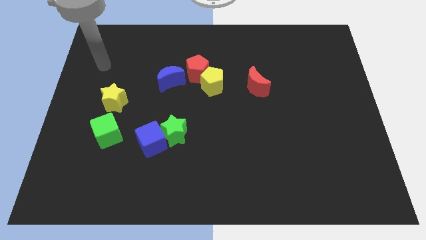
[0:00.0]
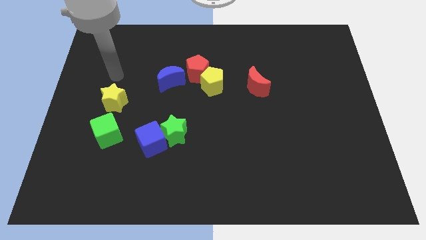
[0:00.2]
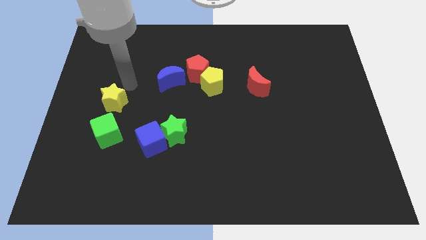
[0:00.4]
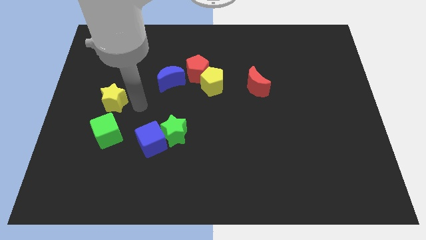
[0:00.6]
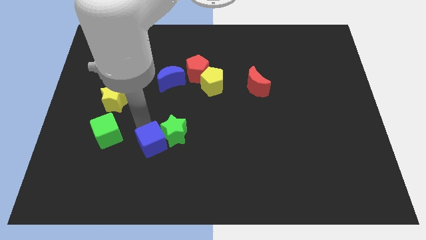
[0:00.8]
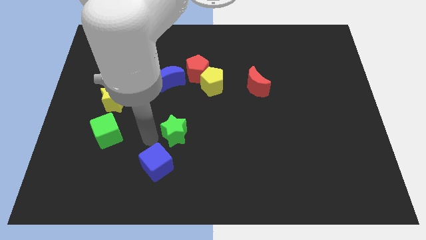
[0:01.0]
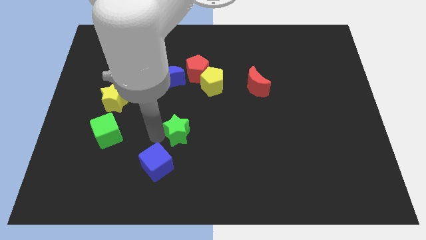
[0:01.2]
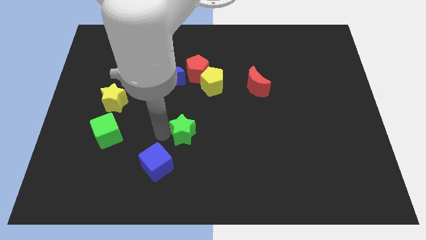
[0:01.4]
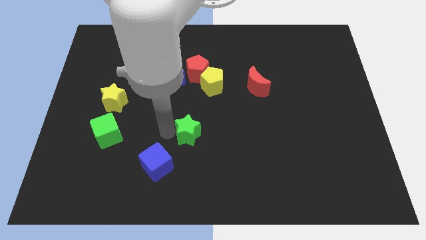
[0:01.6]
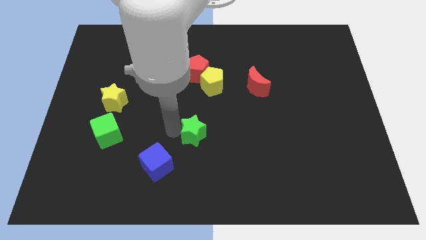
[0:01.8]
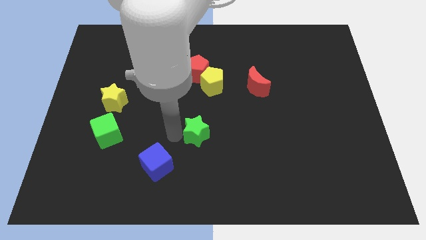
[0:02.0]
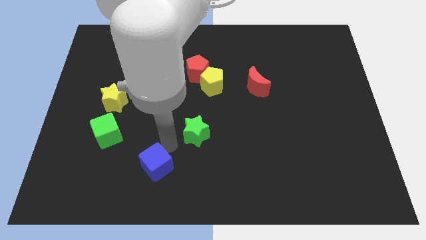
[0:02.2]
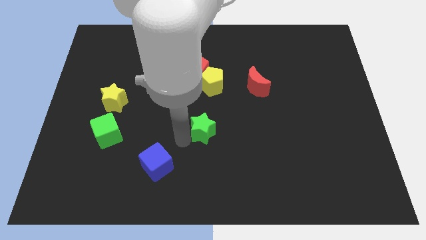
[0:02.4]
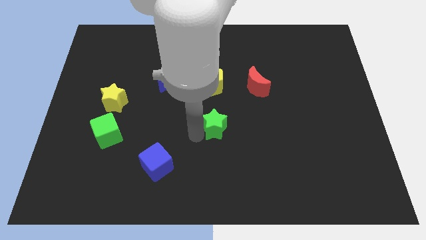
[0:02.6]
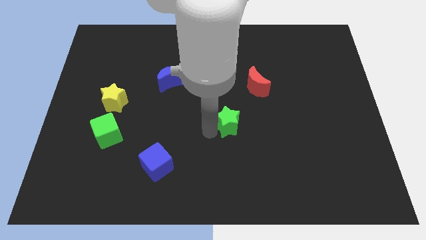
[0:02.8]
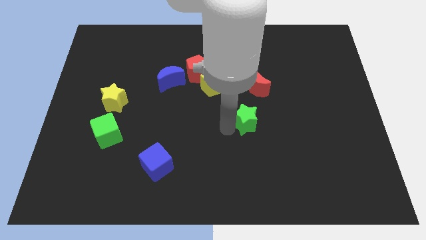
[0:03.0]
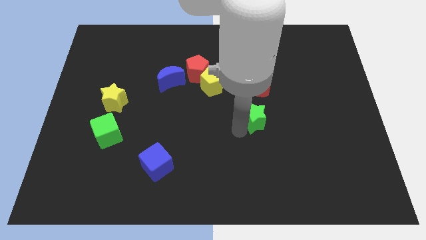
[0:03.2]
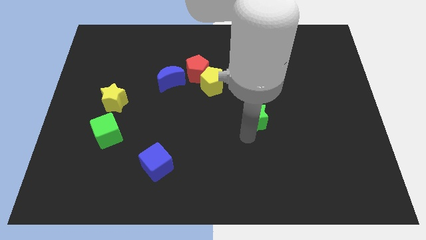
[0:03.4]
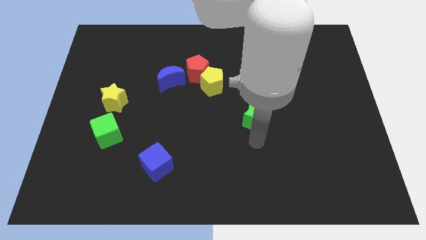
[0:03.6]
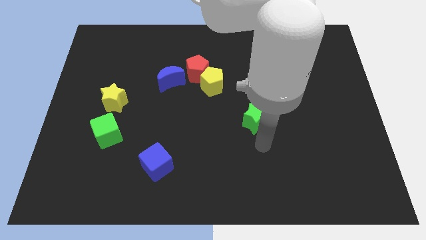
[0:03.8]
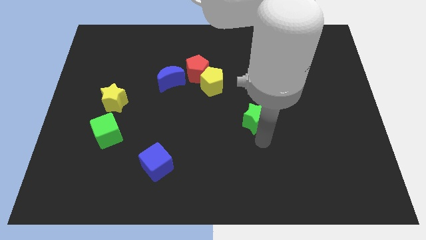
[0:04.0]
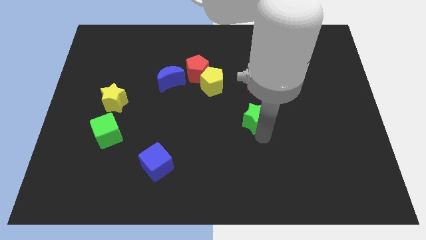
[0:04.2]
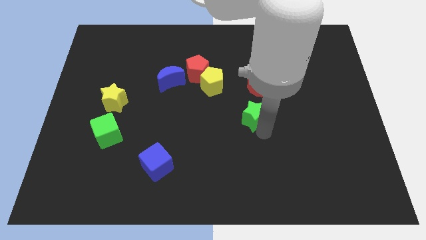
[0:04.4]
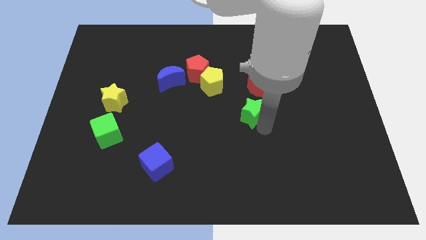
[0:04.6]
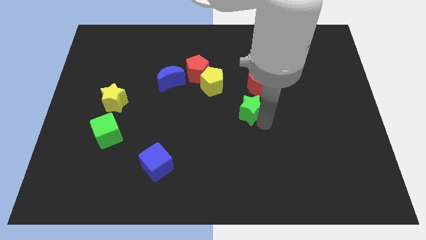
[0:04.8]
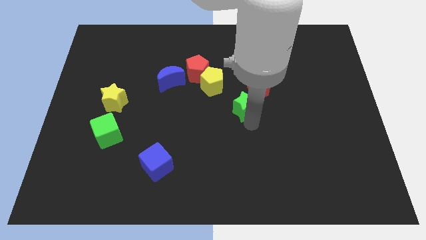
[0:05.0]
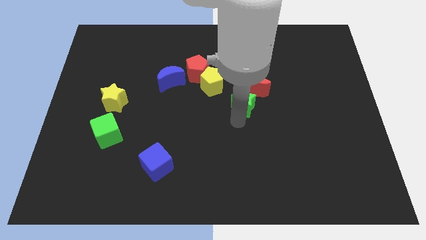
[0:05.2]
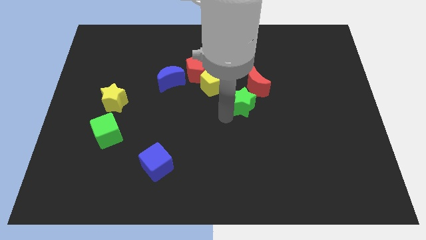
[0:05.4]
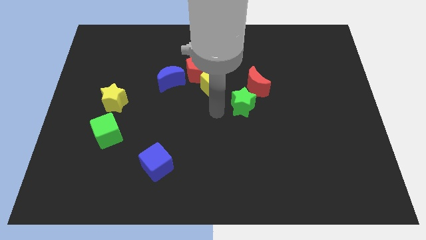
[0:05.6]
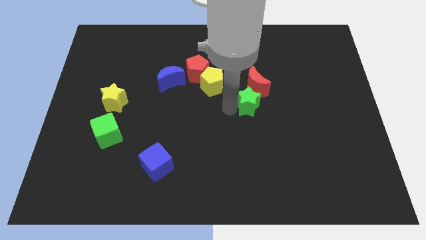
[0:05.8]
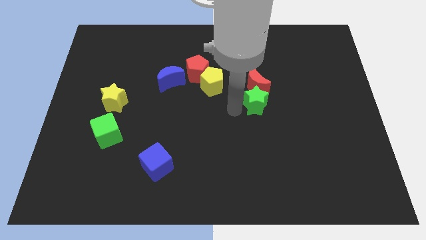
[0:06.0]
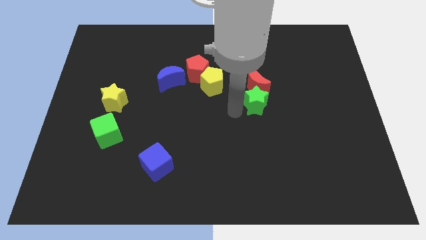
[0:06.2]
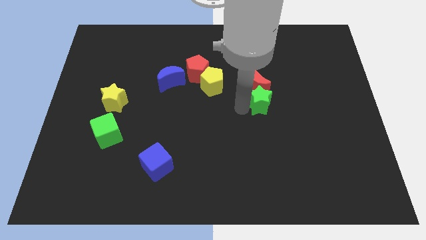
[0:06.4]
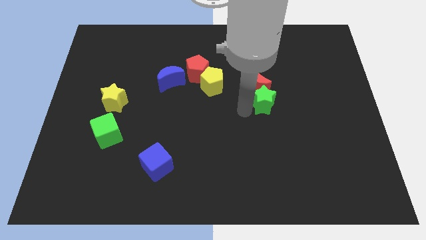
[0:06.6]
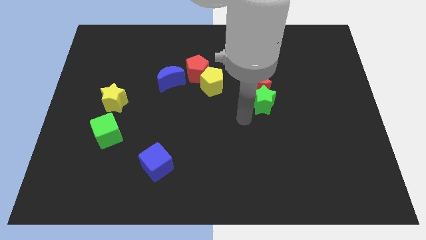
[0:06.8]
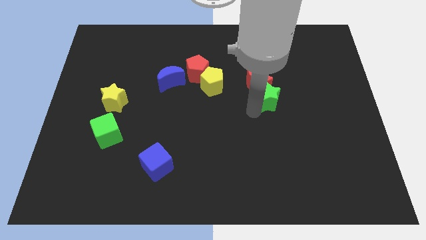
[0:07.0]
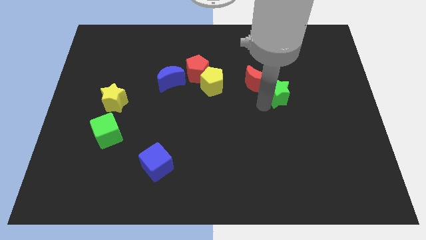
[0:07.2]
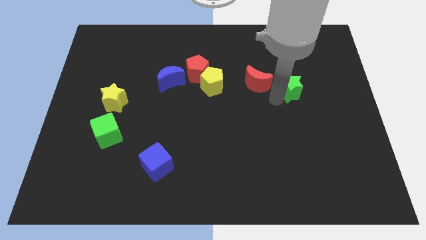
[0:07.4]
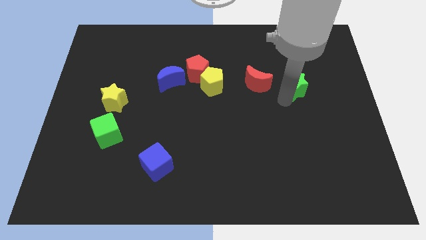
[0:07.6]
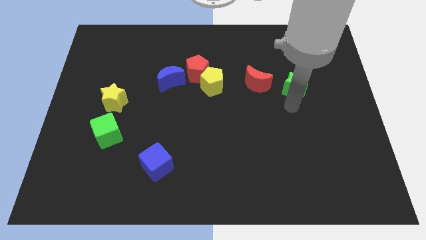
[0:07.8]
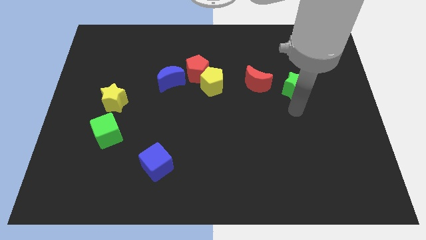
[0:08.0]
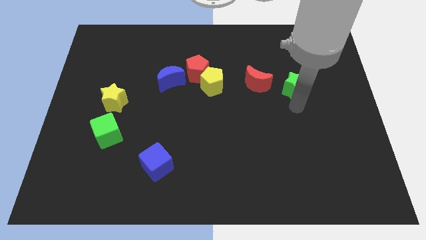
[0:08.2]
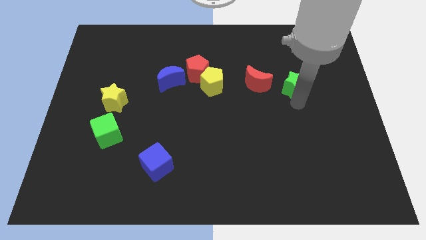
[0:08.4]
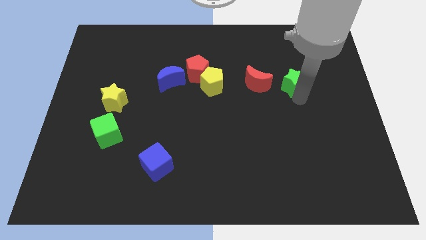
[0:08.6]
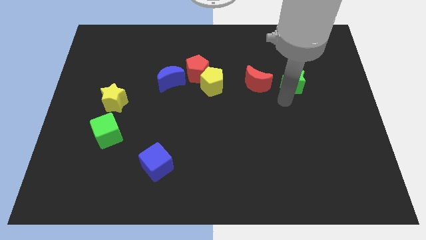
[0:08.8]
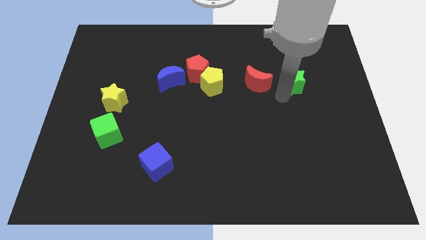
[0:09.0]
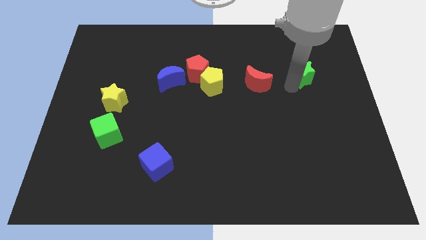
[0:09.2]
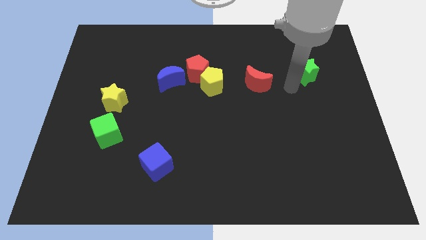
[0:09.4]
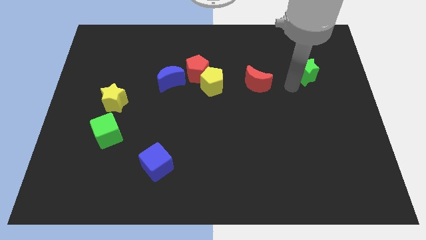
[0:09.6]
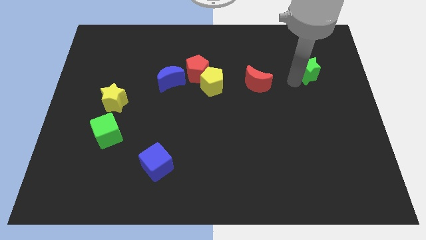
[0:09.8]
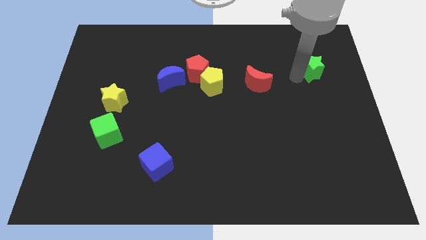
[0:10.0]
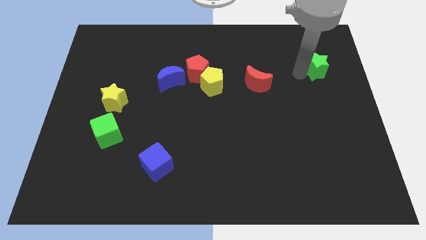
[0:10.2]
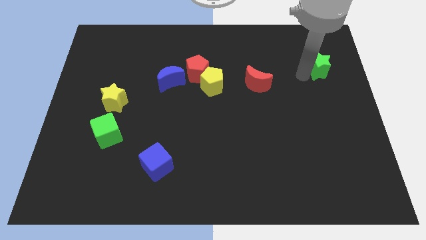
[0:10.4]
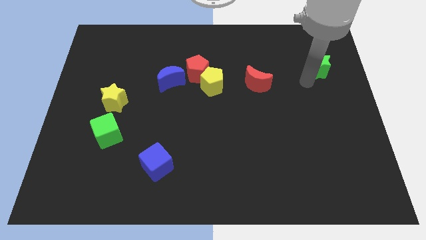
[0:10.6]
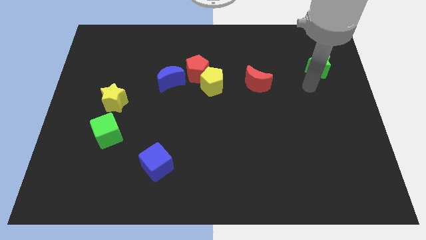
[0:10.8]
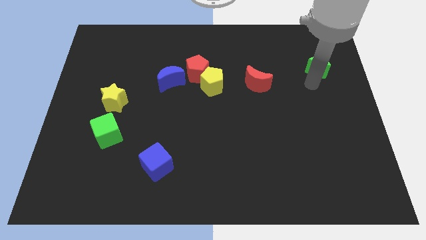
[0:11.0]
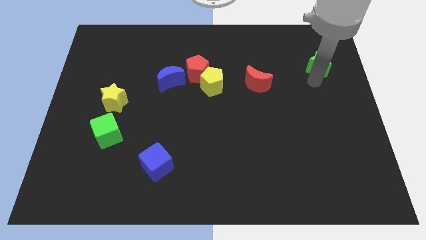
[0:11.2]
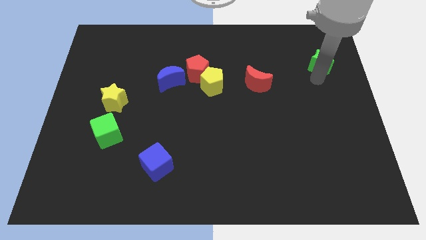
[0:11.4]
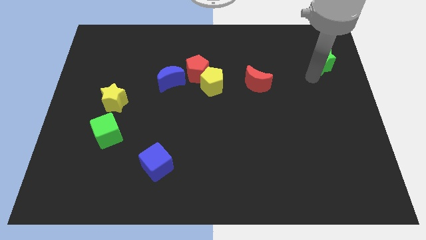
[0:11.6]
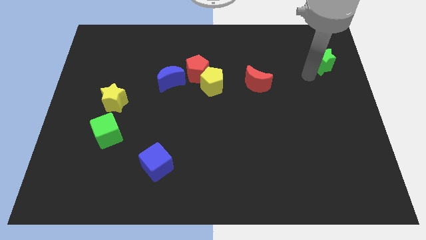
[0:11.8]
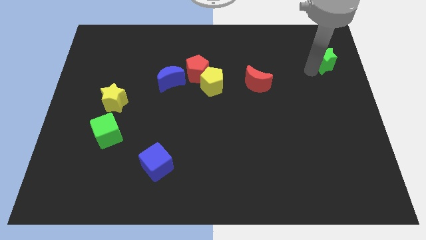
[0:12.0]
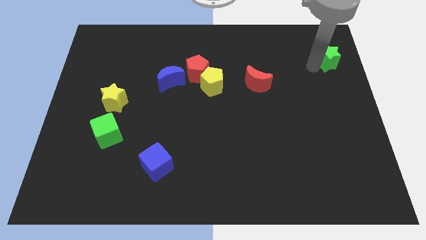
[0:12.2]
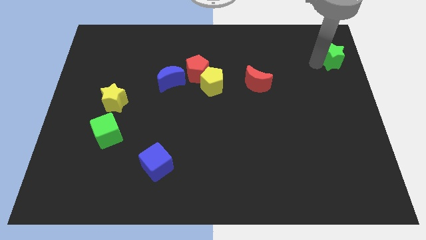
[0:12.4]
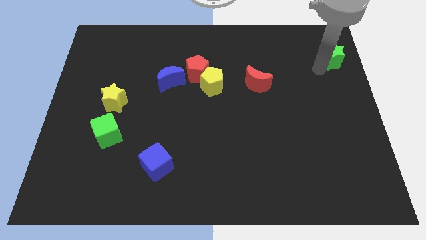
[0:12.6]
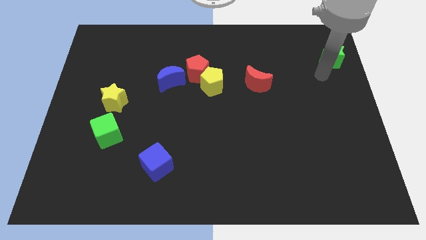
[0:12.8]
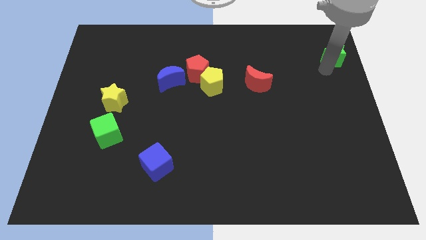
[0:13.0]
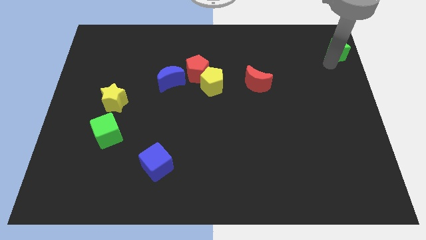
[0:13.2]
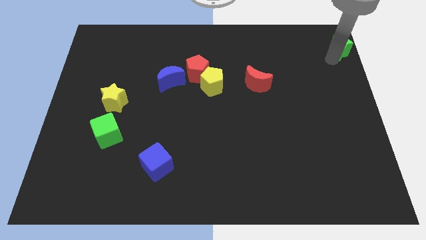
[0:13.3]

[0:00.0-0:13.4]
push the green star to the top right
